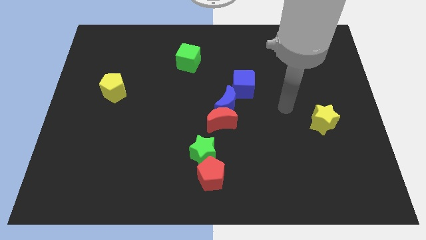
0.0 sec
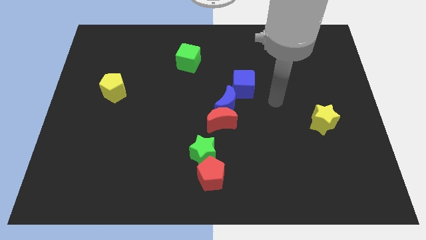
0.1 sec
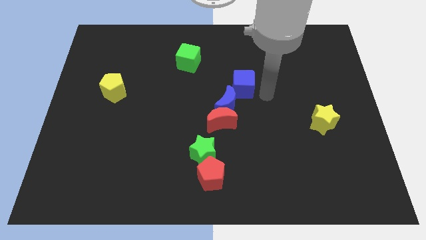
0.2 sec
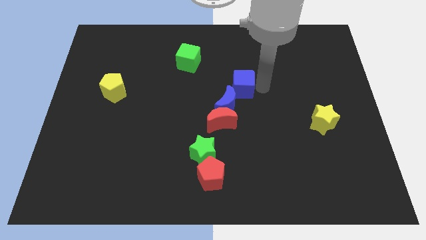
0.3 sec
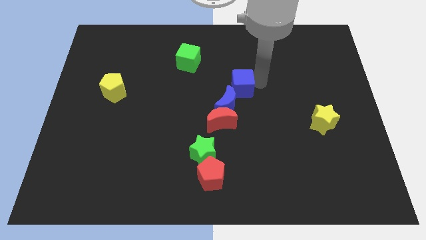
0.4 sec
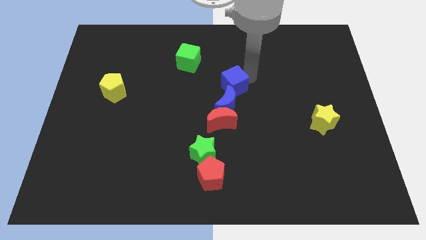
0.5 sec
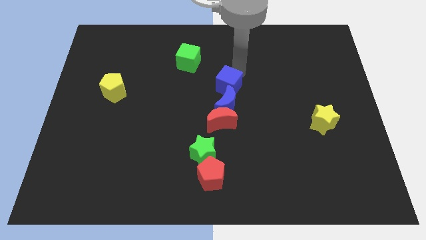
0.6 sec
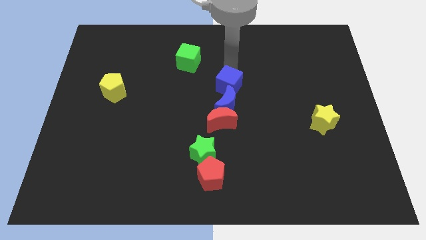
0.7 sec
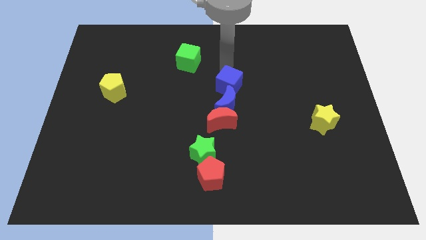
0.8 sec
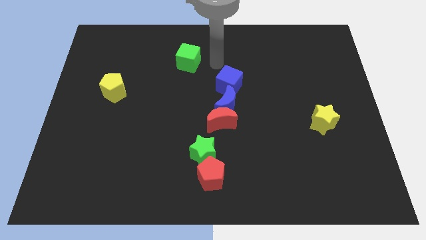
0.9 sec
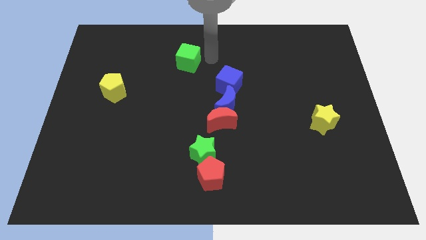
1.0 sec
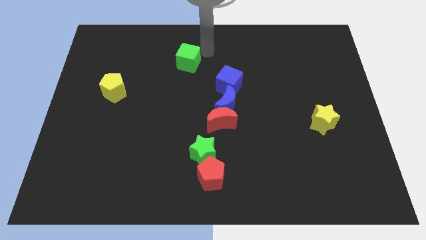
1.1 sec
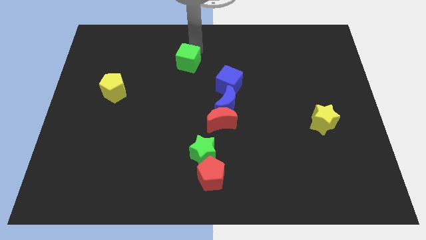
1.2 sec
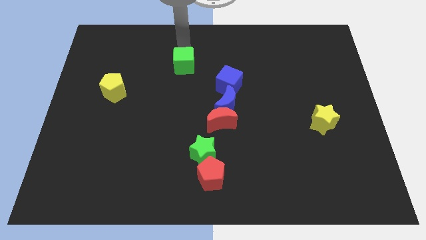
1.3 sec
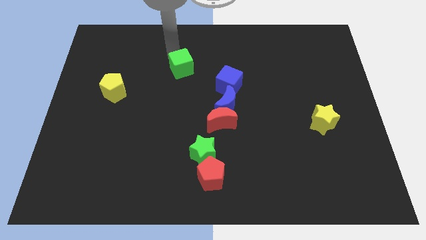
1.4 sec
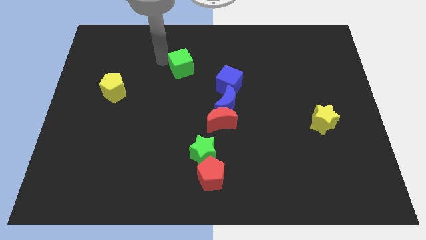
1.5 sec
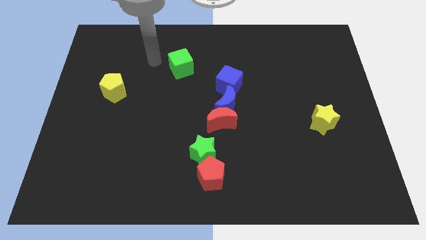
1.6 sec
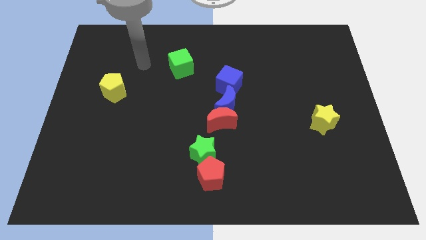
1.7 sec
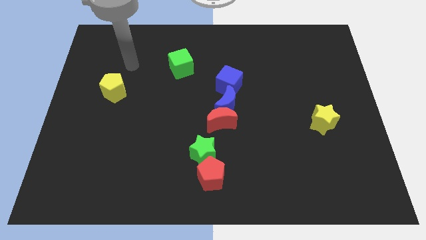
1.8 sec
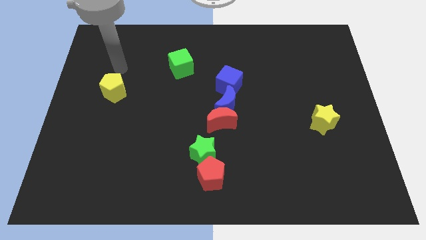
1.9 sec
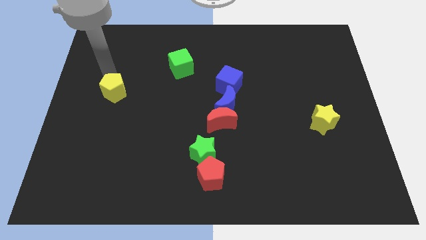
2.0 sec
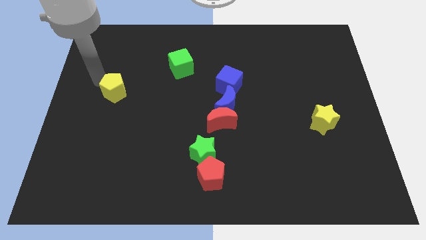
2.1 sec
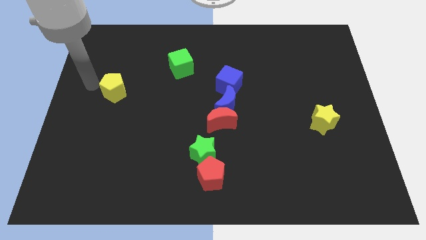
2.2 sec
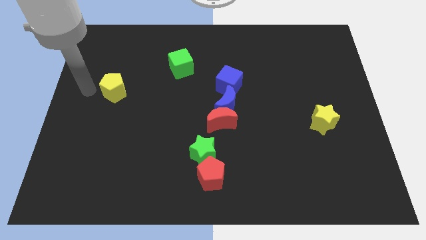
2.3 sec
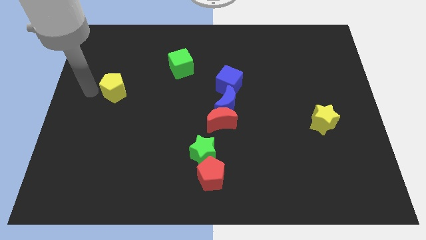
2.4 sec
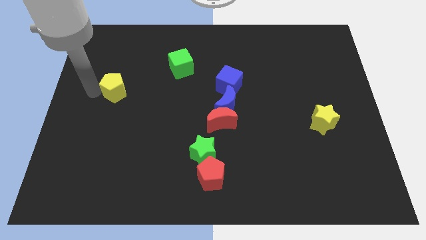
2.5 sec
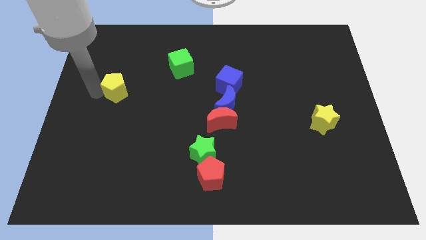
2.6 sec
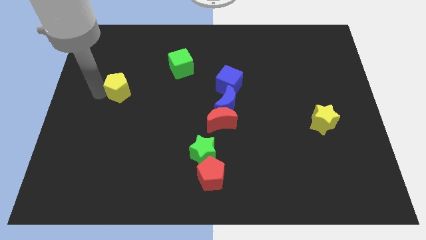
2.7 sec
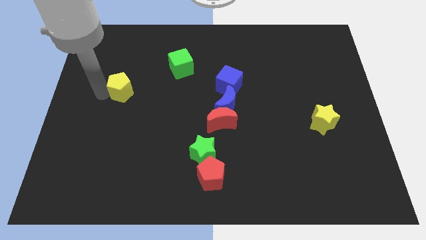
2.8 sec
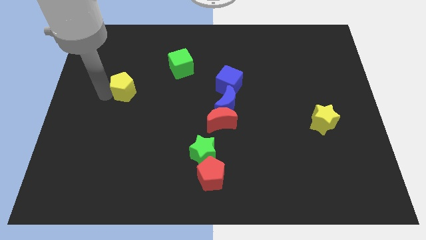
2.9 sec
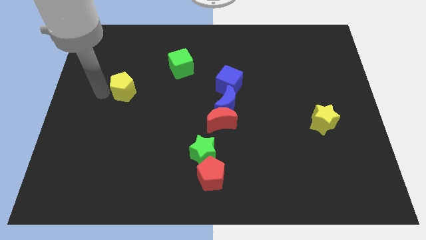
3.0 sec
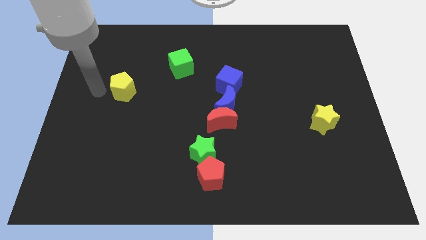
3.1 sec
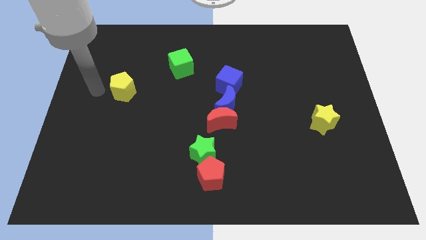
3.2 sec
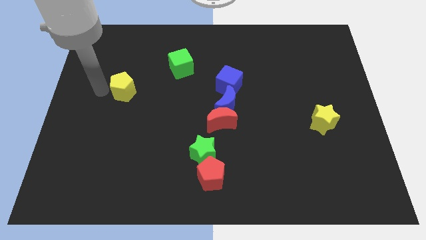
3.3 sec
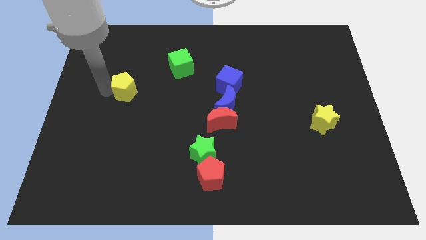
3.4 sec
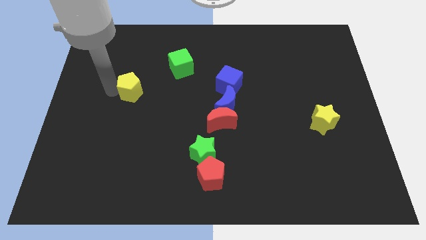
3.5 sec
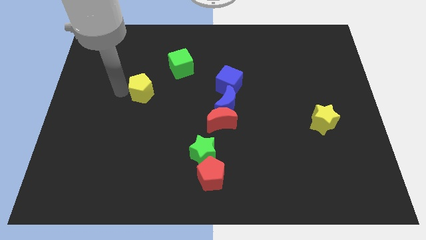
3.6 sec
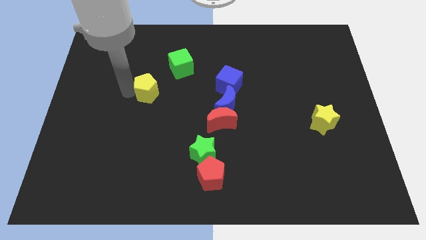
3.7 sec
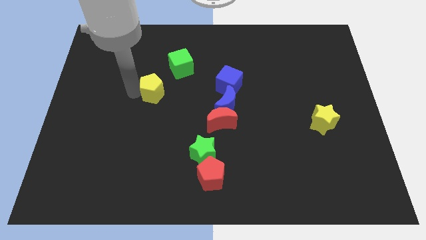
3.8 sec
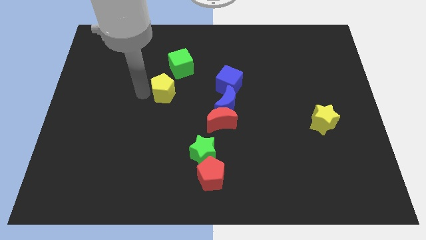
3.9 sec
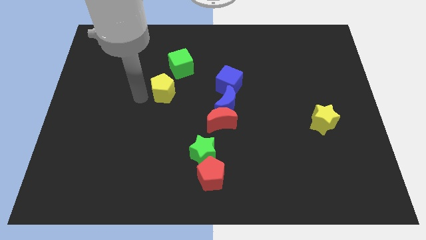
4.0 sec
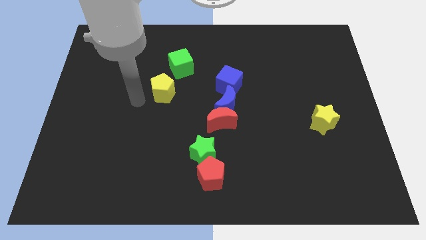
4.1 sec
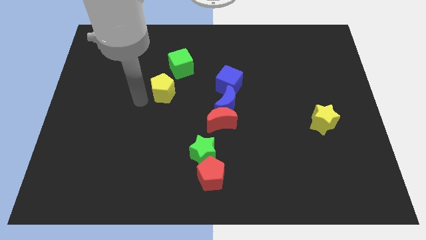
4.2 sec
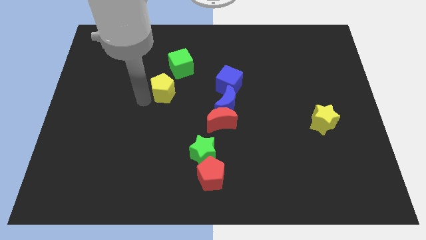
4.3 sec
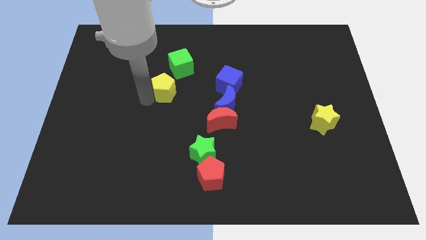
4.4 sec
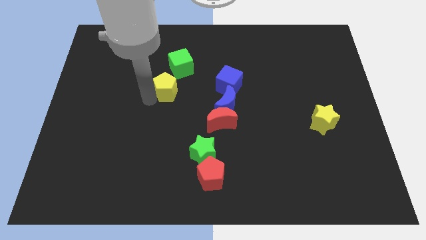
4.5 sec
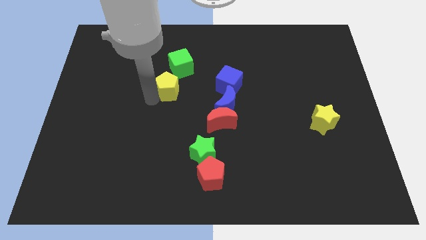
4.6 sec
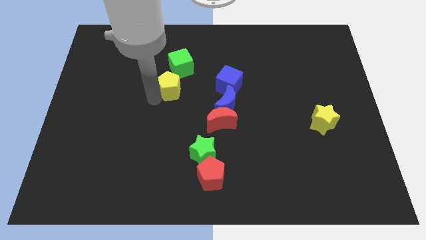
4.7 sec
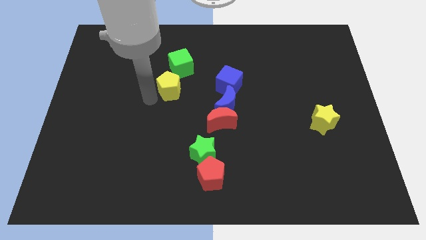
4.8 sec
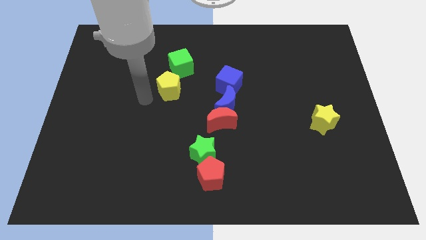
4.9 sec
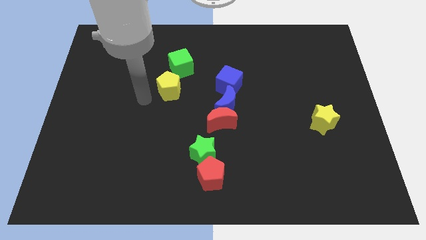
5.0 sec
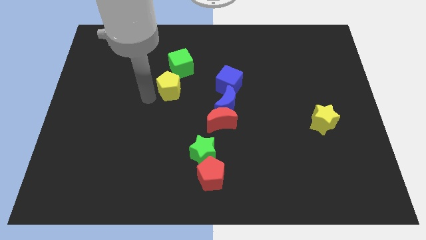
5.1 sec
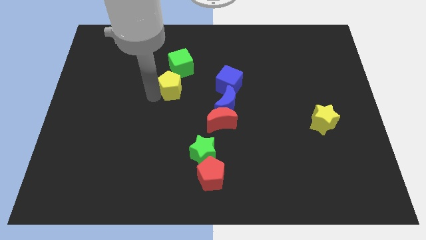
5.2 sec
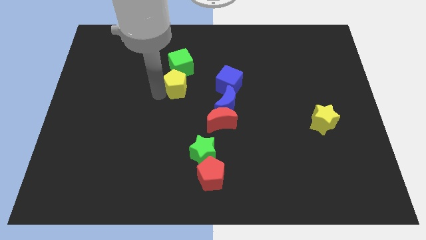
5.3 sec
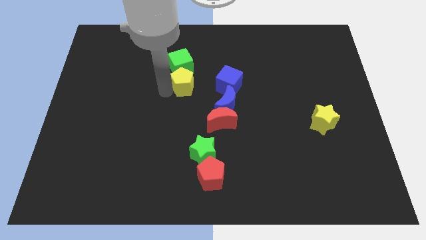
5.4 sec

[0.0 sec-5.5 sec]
put the yellow pentagon diagonally down and to the right of the green cube

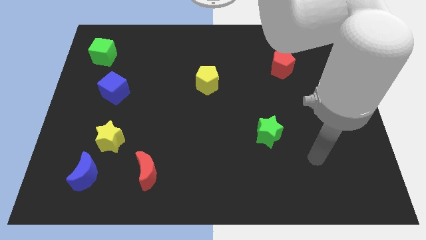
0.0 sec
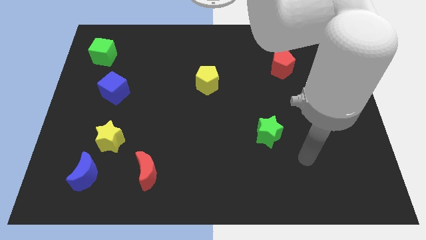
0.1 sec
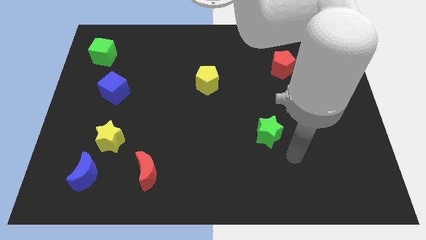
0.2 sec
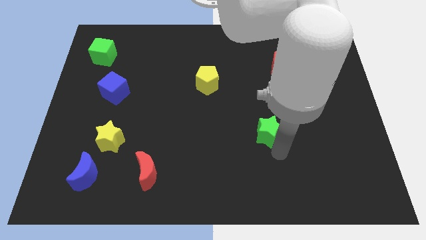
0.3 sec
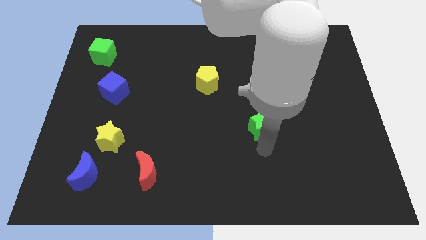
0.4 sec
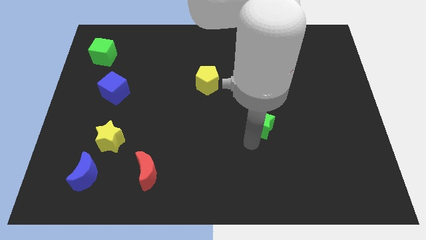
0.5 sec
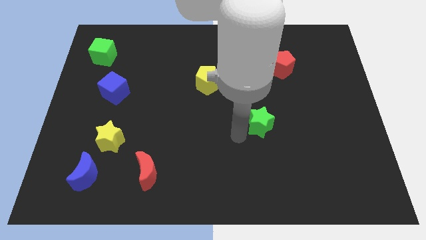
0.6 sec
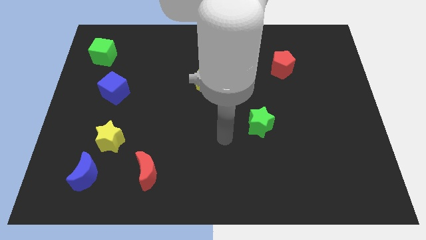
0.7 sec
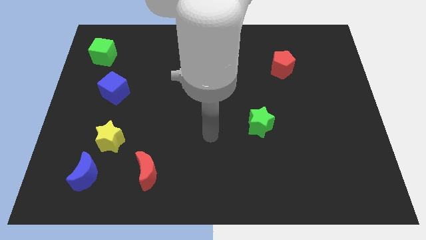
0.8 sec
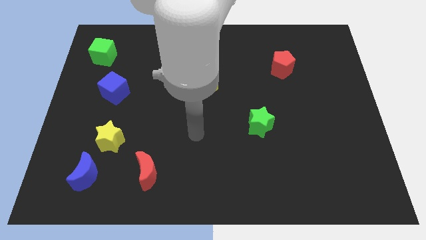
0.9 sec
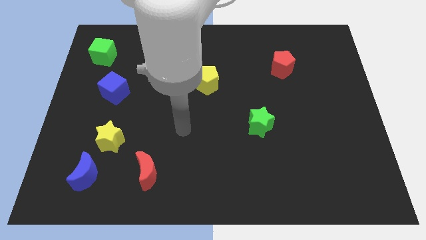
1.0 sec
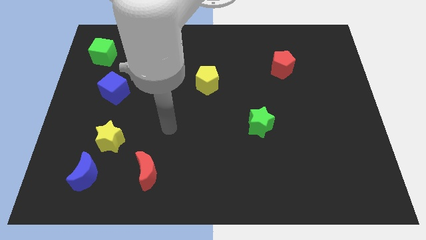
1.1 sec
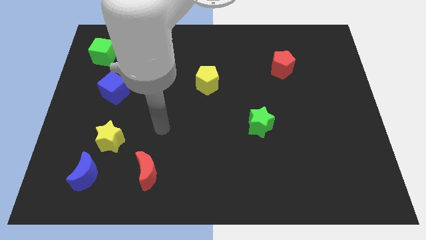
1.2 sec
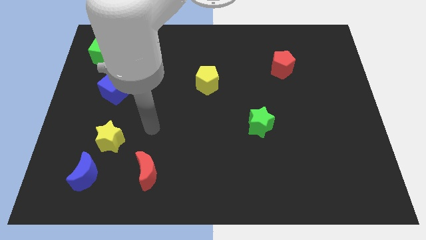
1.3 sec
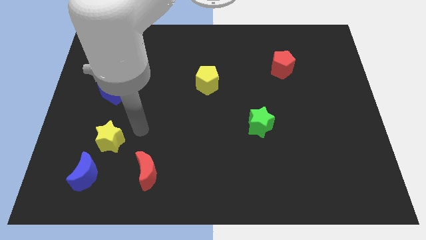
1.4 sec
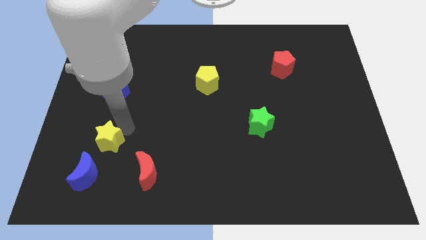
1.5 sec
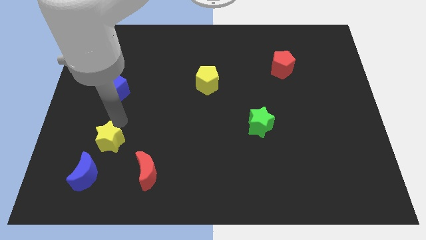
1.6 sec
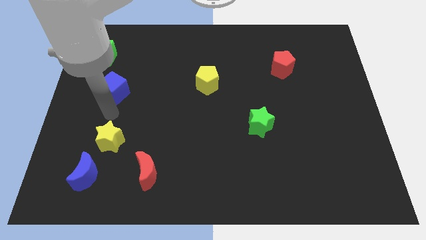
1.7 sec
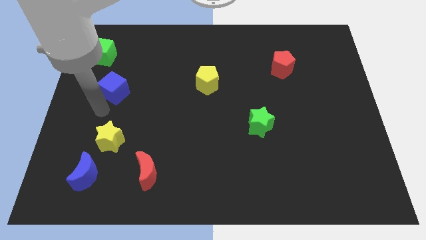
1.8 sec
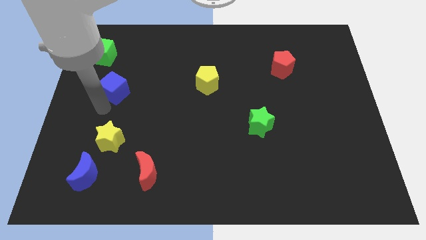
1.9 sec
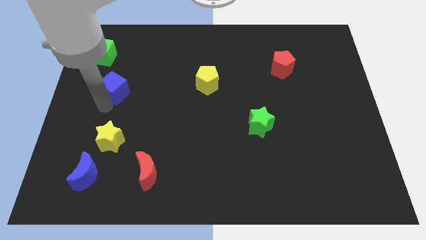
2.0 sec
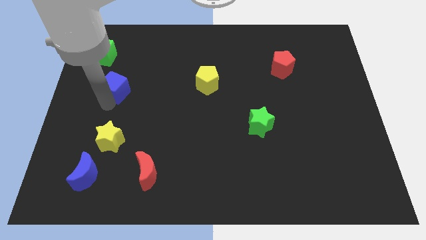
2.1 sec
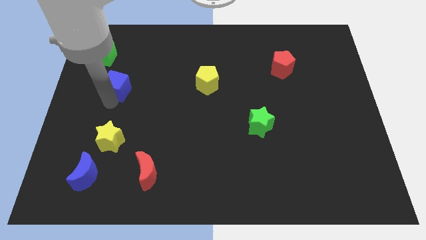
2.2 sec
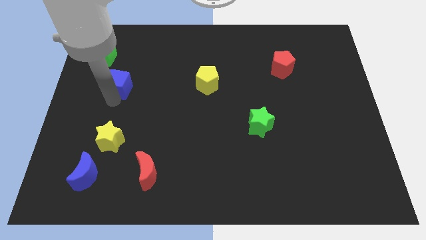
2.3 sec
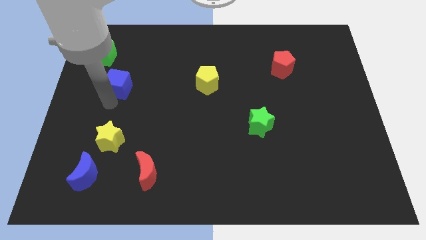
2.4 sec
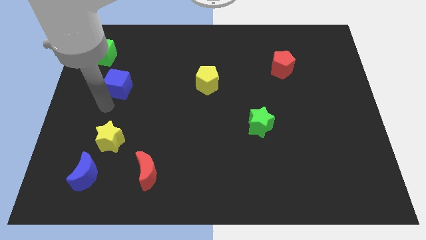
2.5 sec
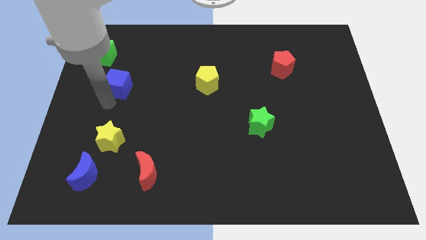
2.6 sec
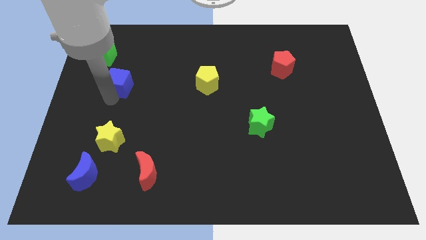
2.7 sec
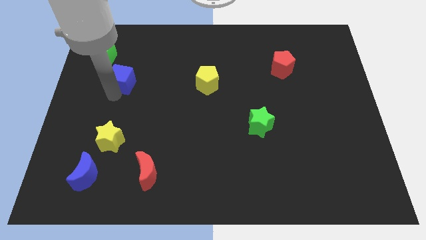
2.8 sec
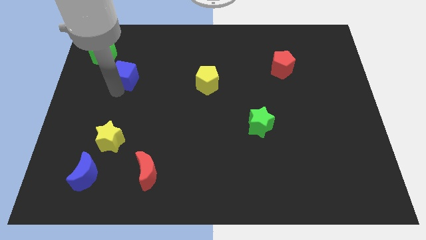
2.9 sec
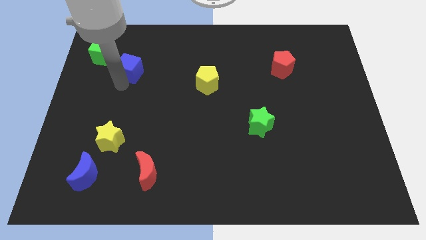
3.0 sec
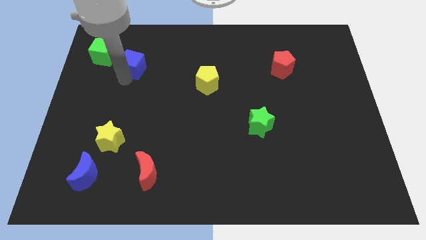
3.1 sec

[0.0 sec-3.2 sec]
push the blue cube just right of the green cube
